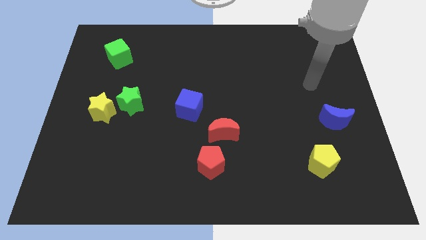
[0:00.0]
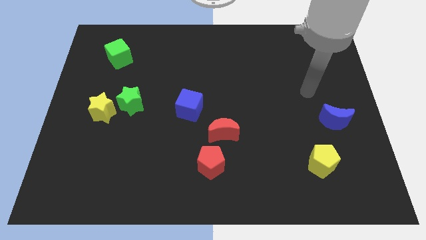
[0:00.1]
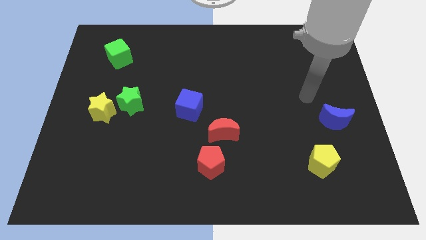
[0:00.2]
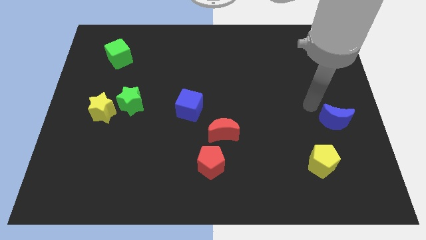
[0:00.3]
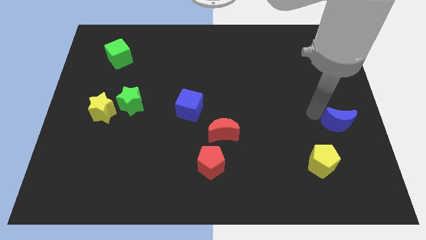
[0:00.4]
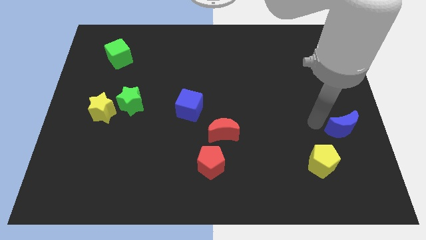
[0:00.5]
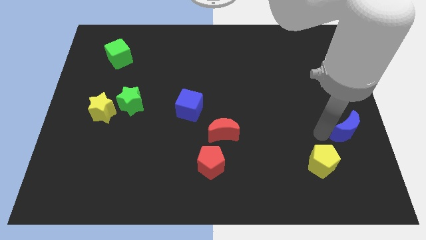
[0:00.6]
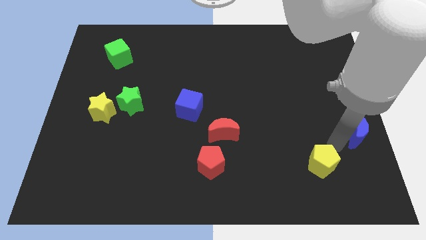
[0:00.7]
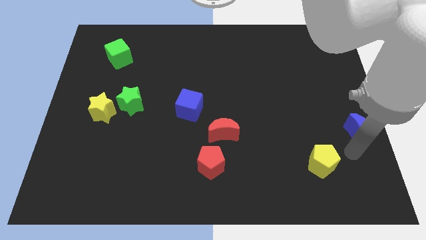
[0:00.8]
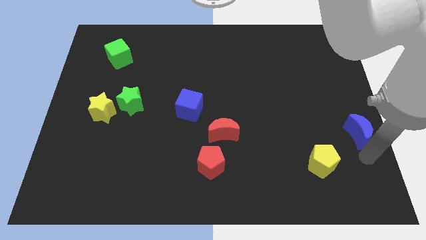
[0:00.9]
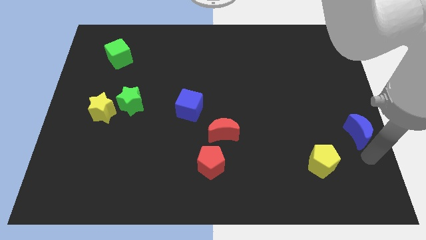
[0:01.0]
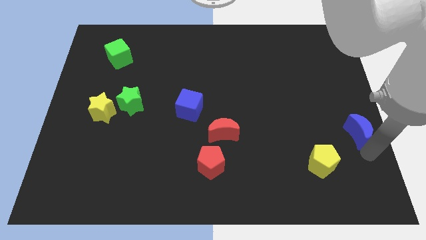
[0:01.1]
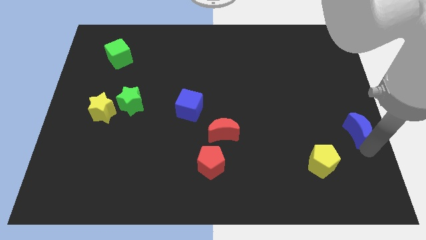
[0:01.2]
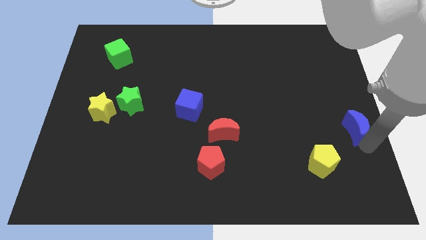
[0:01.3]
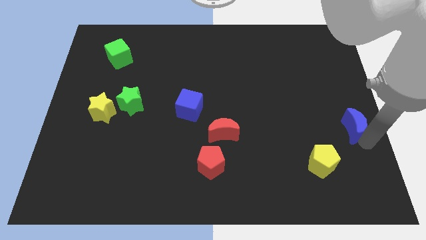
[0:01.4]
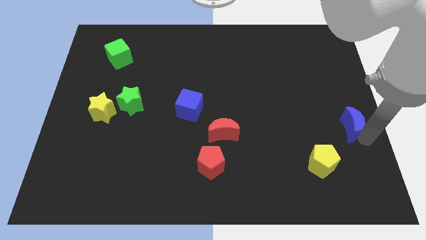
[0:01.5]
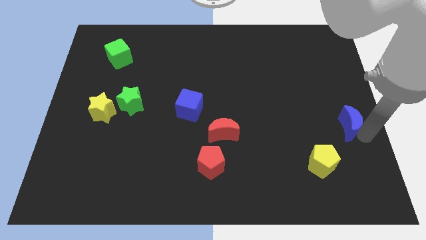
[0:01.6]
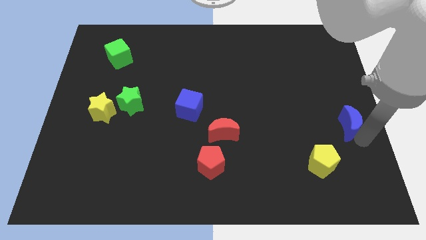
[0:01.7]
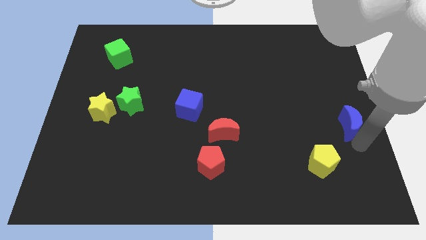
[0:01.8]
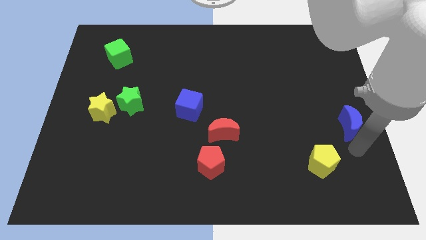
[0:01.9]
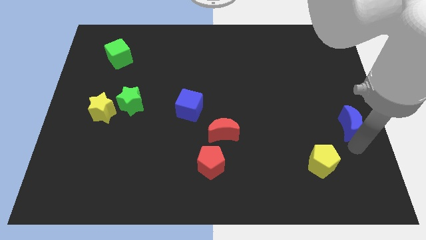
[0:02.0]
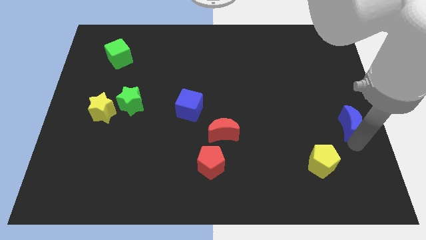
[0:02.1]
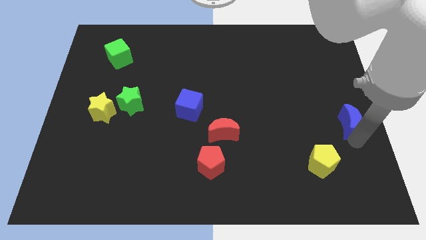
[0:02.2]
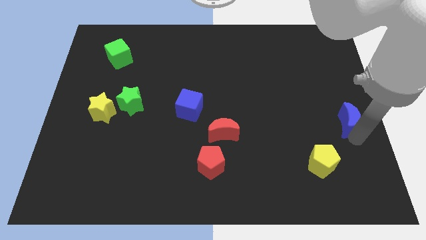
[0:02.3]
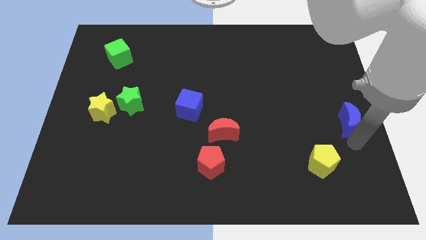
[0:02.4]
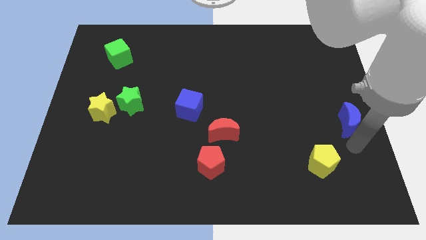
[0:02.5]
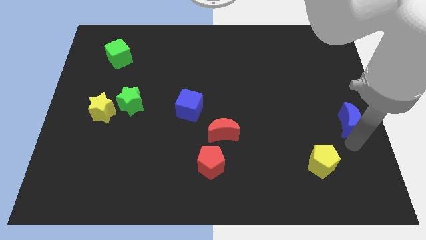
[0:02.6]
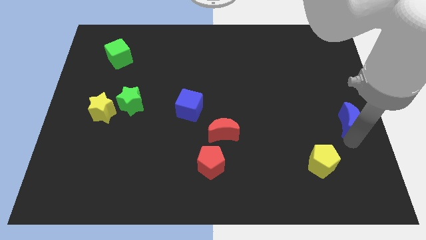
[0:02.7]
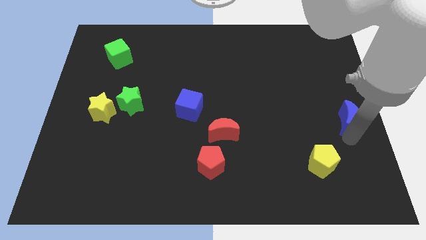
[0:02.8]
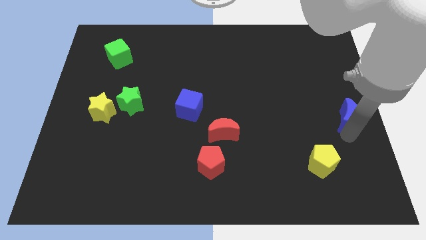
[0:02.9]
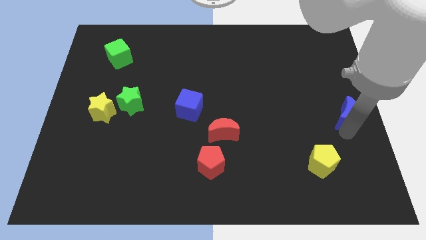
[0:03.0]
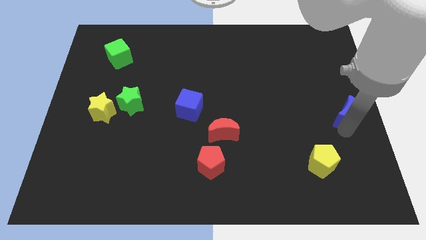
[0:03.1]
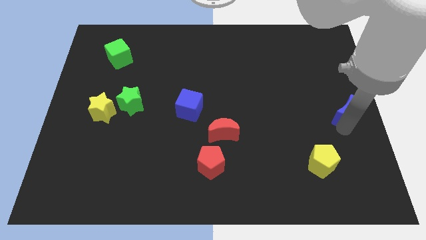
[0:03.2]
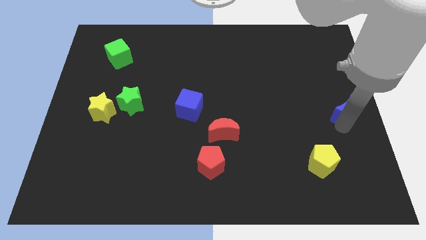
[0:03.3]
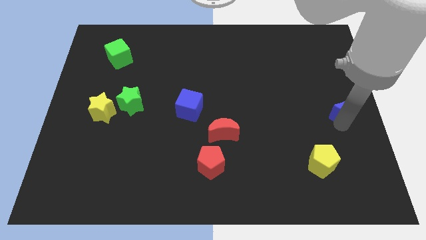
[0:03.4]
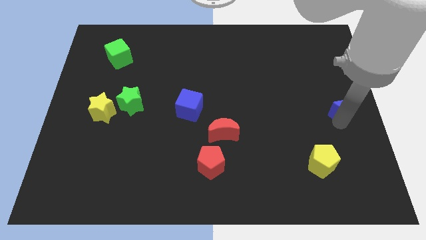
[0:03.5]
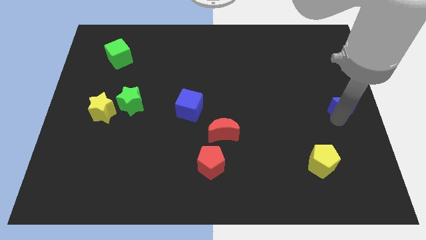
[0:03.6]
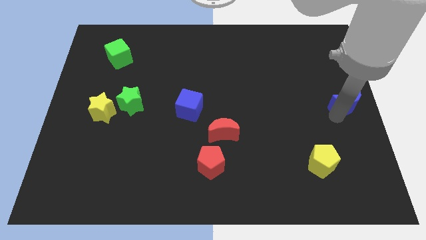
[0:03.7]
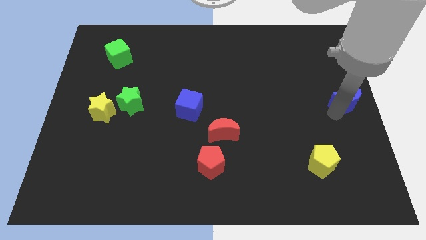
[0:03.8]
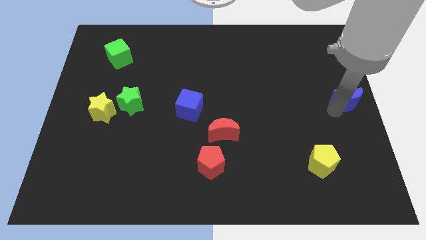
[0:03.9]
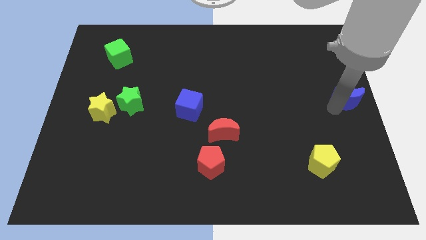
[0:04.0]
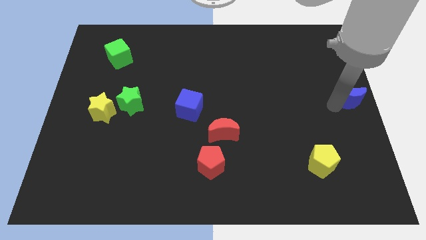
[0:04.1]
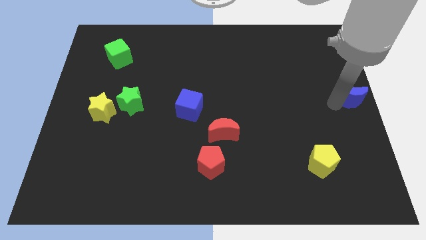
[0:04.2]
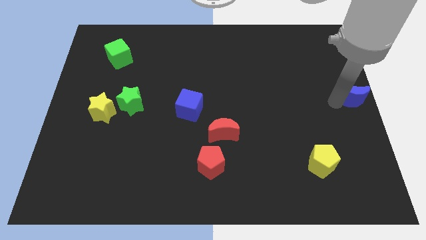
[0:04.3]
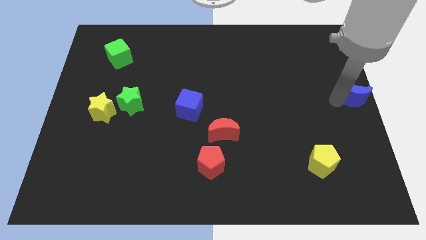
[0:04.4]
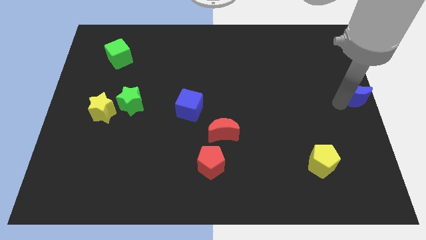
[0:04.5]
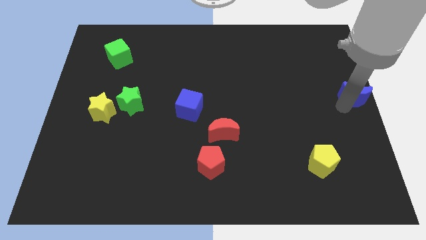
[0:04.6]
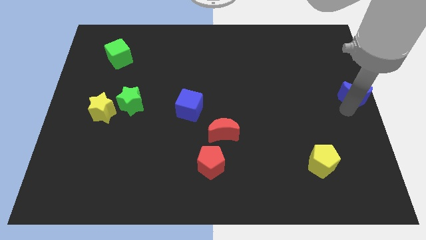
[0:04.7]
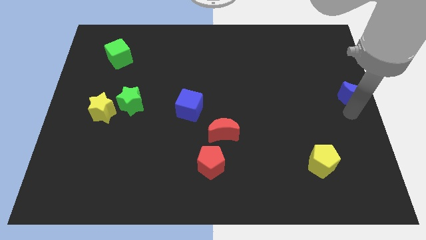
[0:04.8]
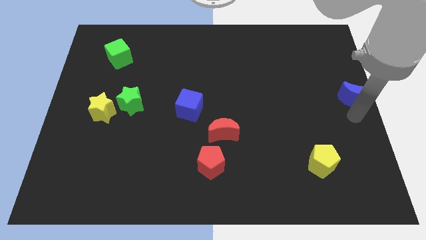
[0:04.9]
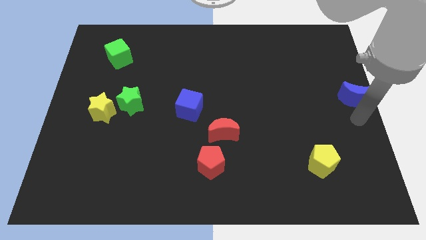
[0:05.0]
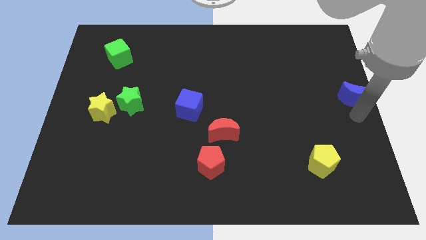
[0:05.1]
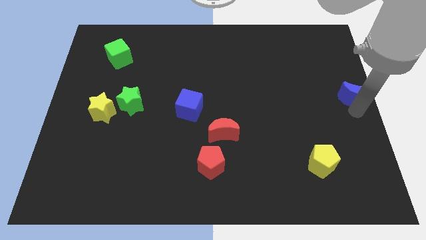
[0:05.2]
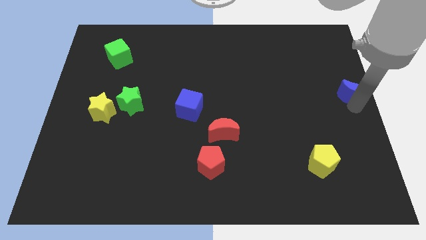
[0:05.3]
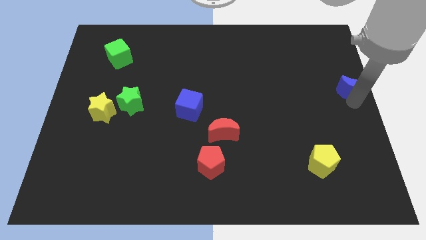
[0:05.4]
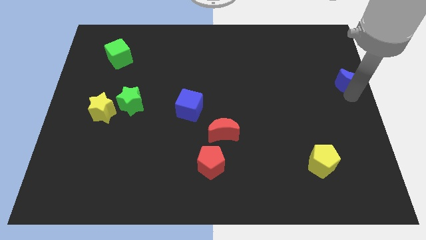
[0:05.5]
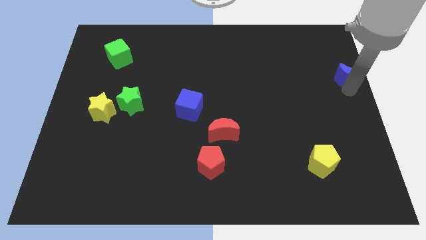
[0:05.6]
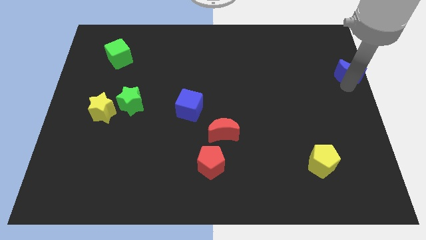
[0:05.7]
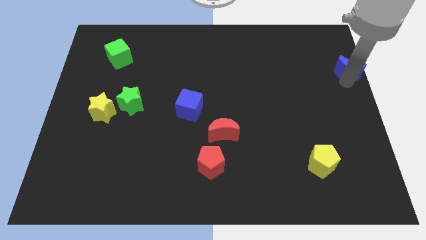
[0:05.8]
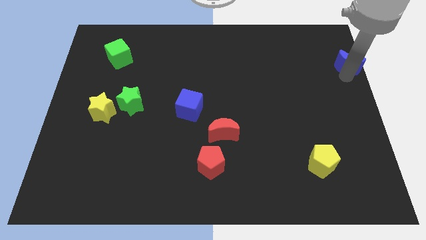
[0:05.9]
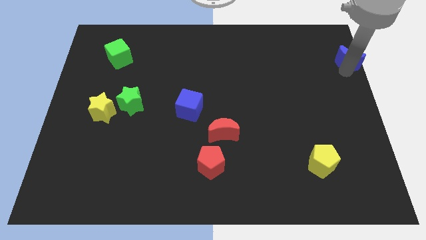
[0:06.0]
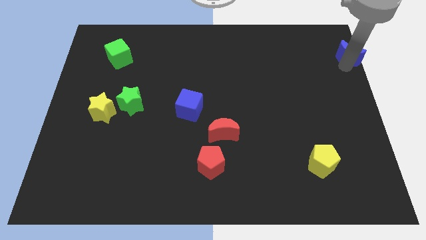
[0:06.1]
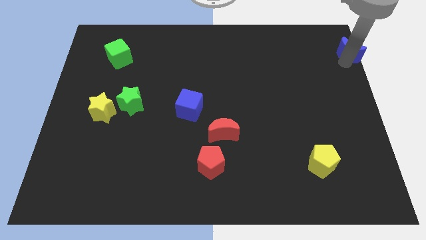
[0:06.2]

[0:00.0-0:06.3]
push the blue moon to the top right of the board
